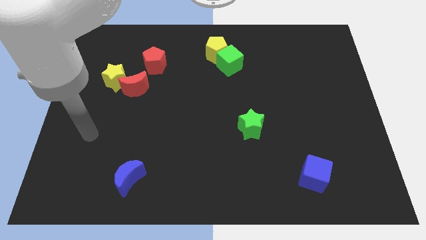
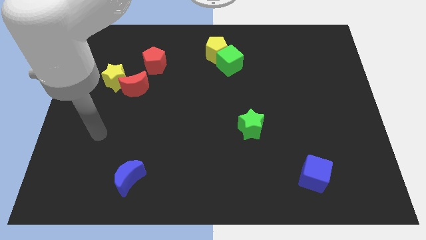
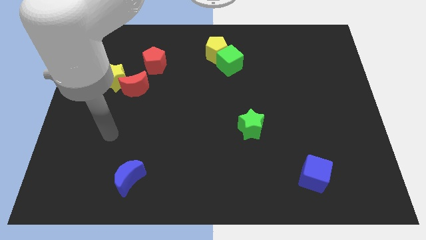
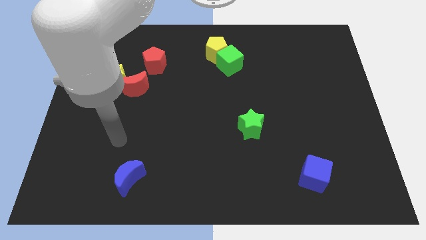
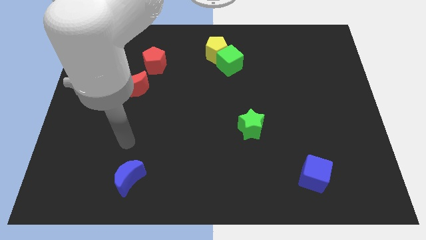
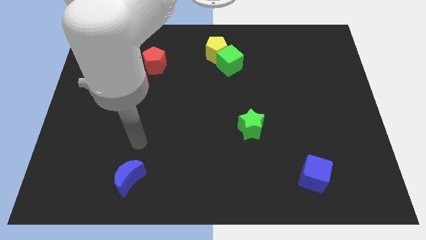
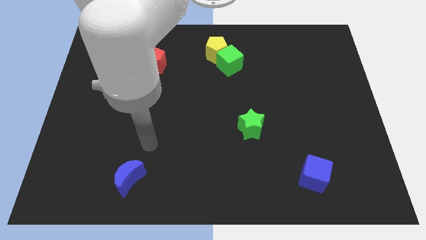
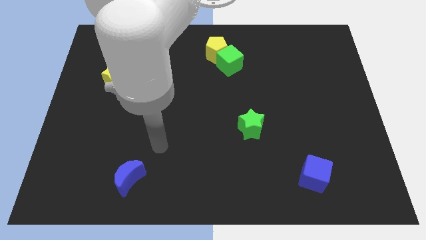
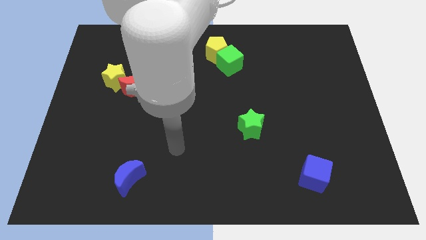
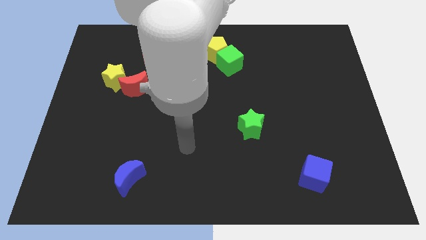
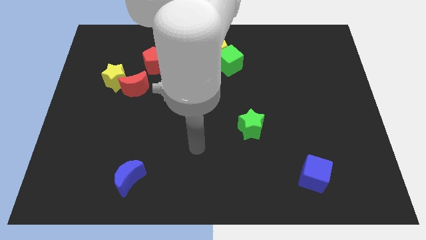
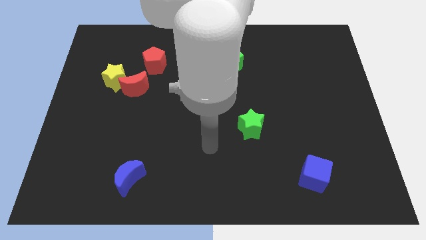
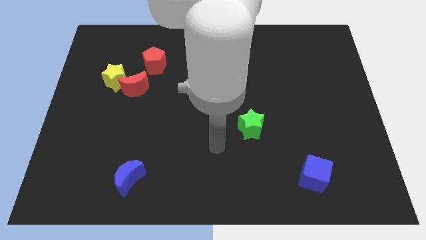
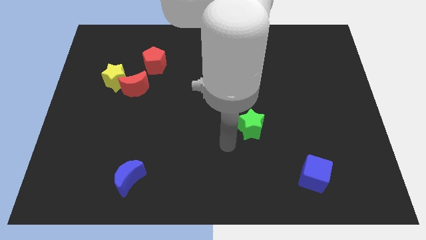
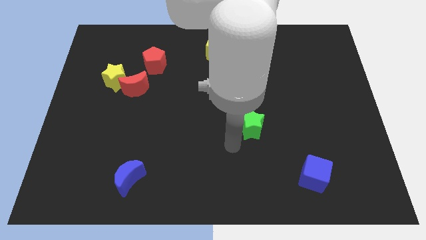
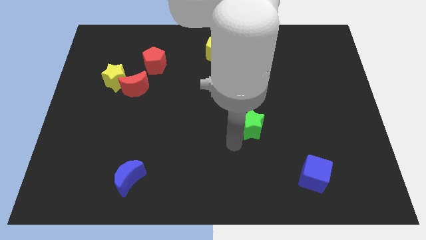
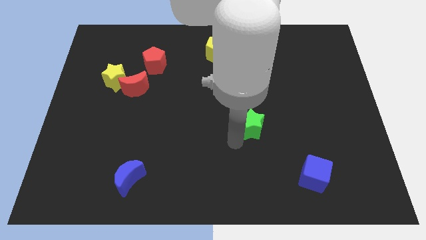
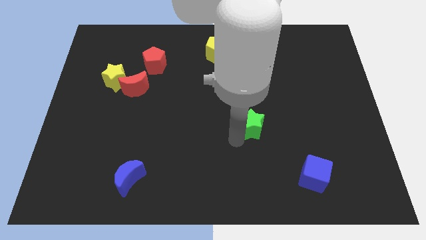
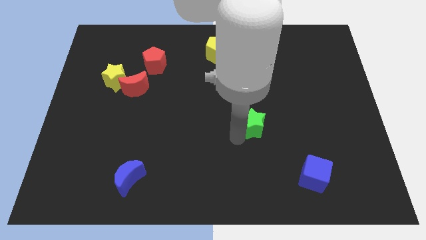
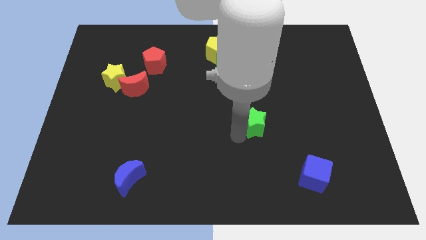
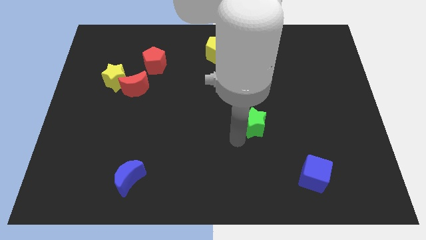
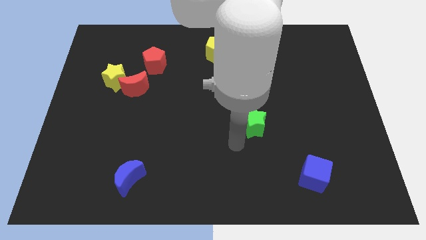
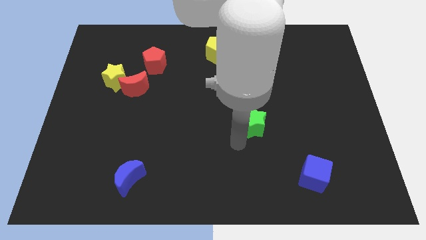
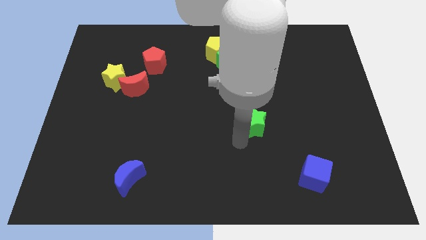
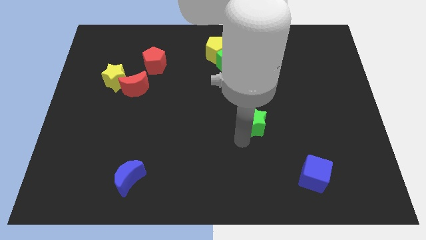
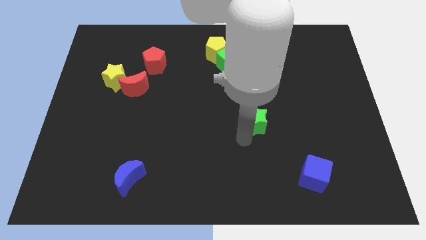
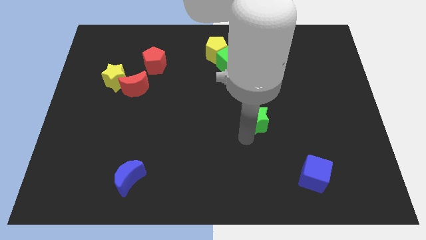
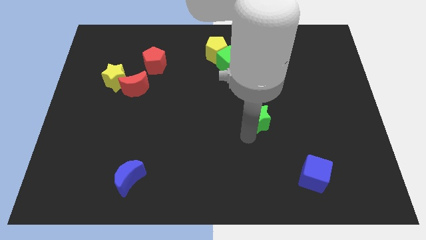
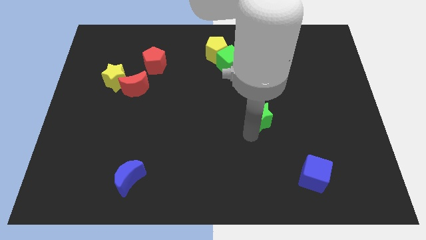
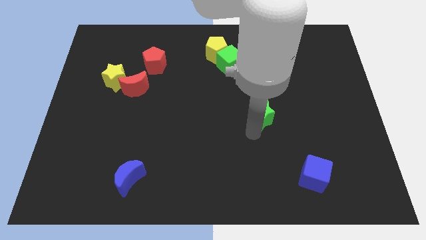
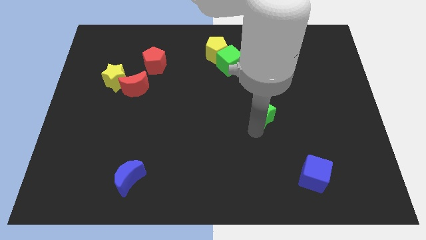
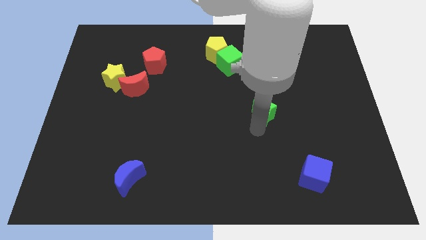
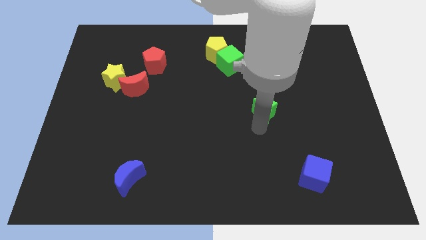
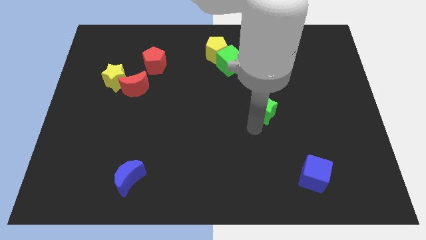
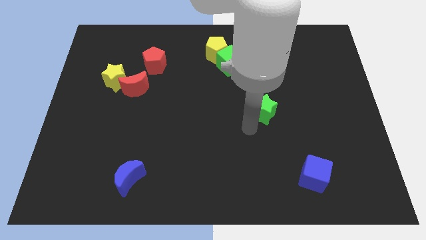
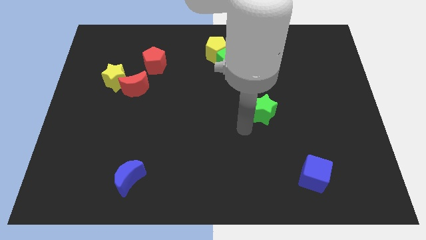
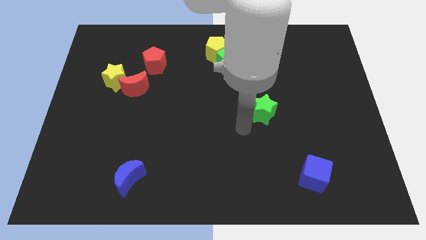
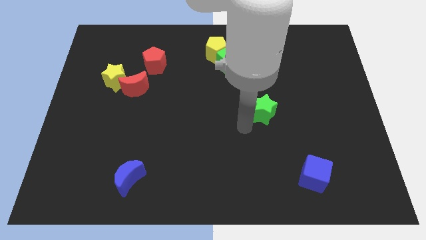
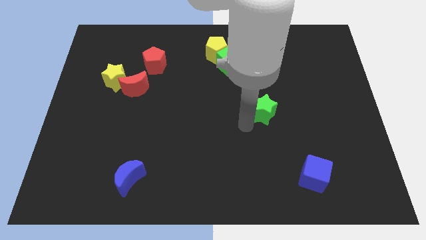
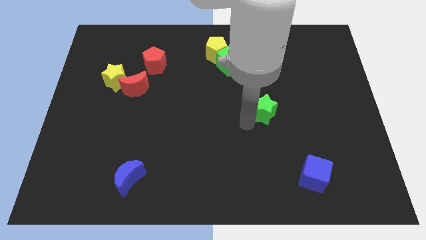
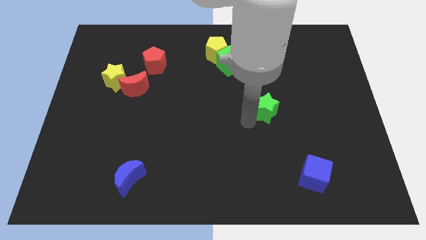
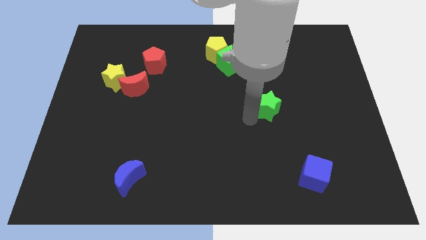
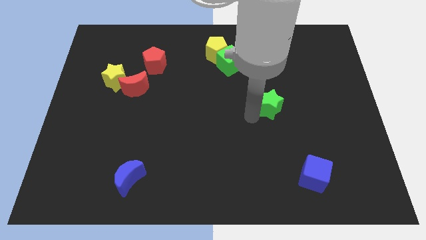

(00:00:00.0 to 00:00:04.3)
move the green star diagonally up and to the right a little bit

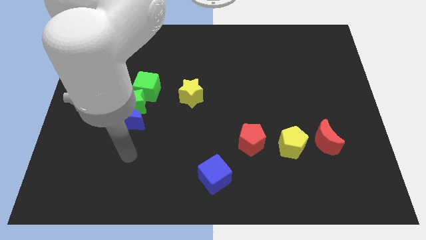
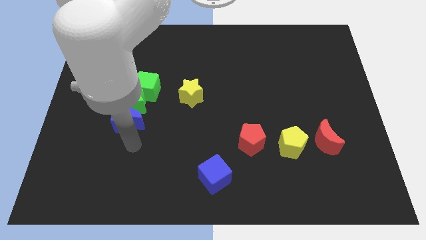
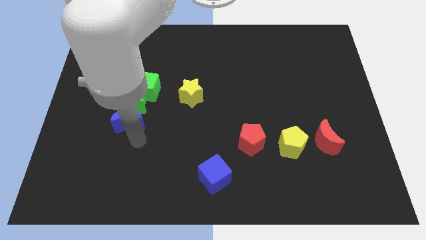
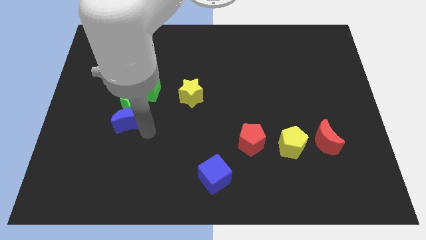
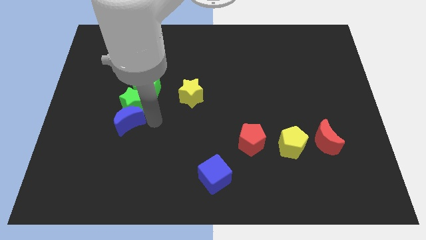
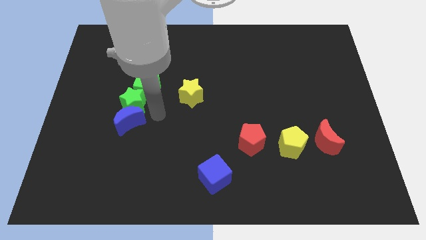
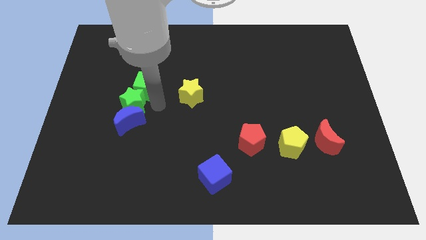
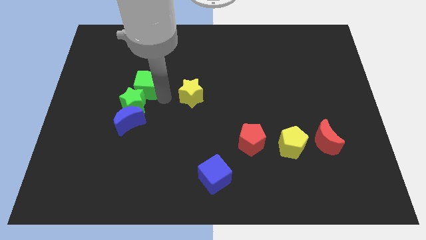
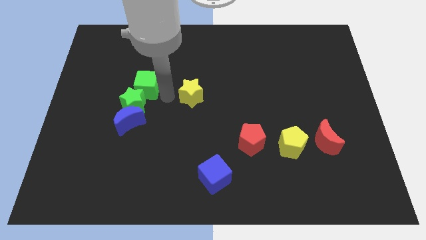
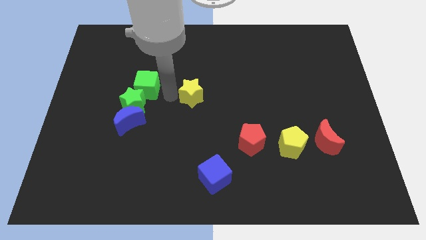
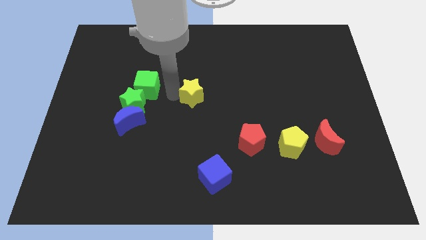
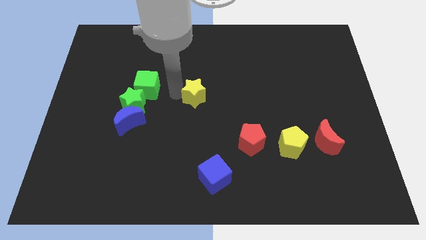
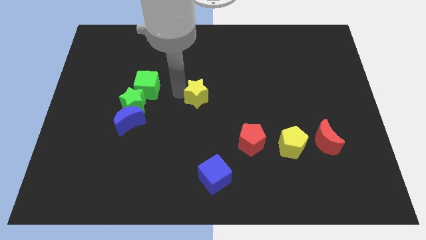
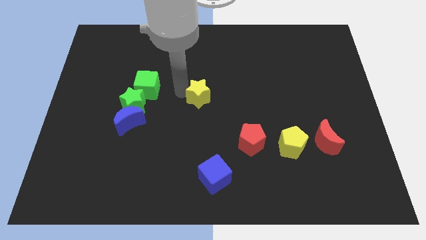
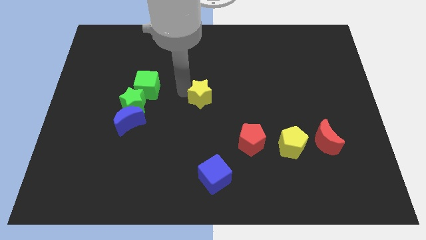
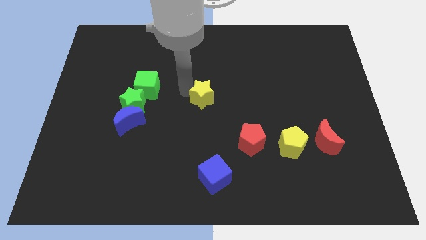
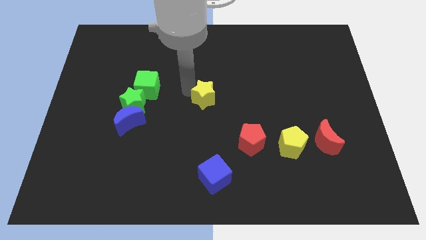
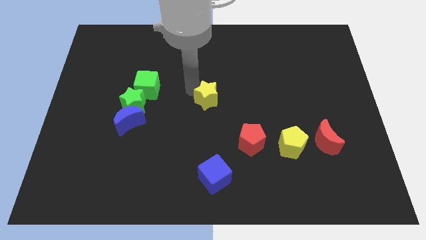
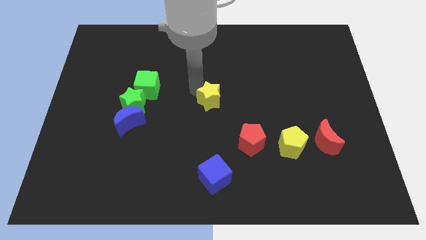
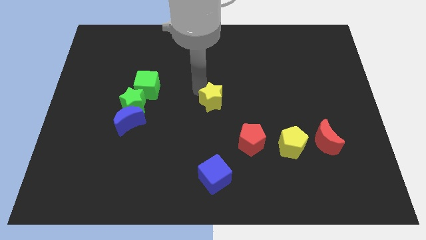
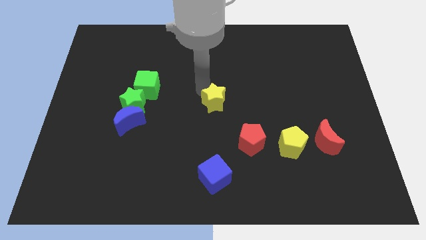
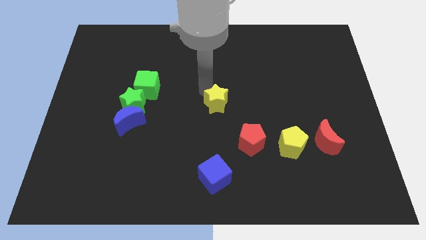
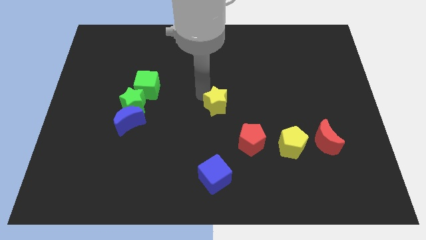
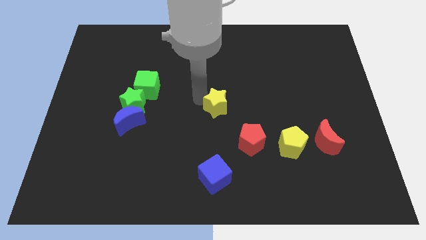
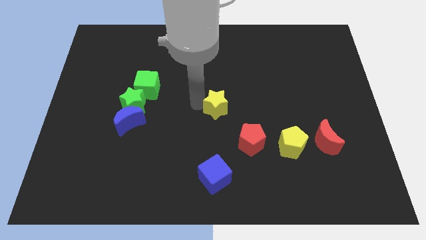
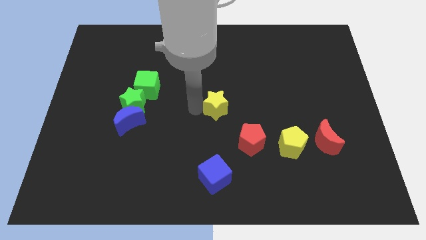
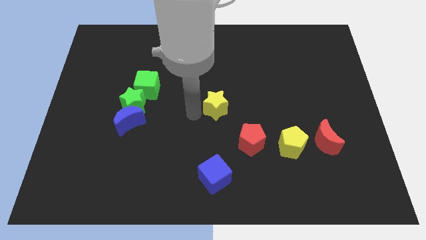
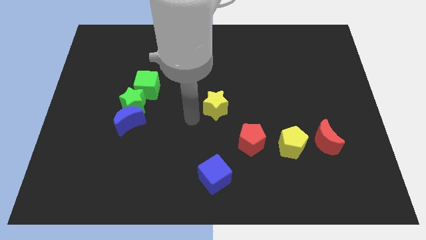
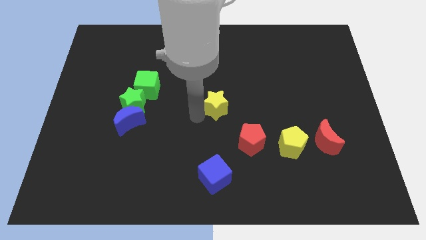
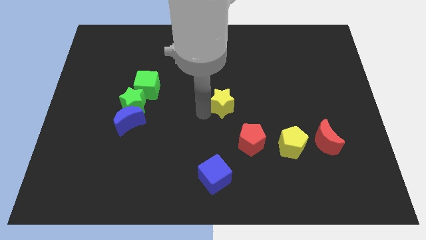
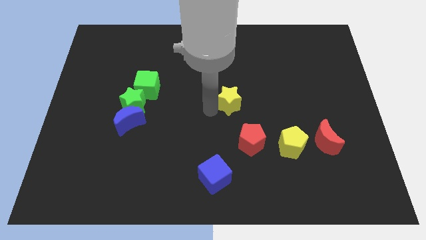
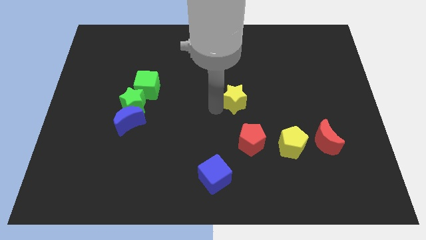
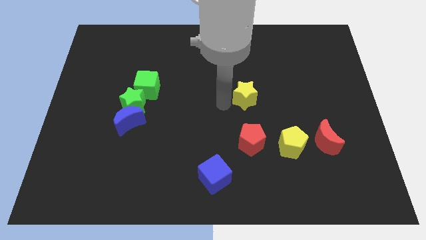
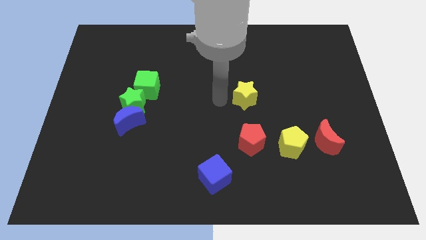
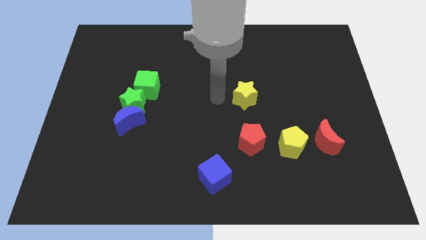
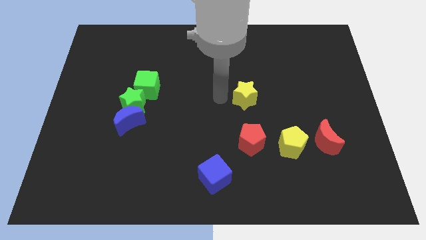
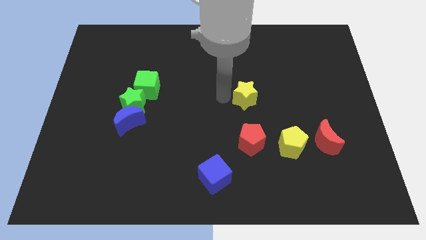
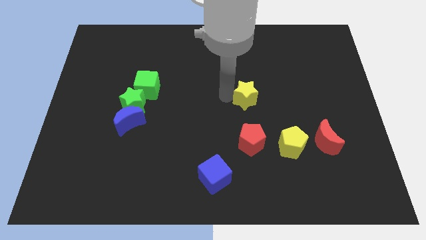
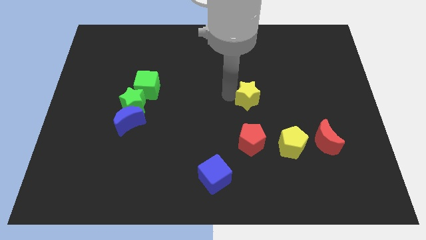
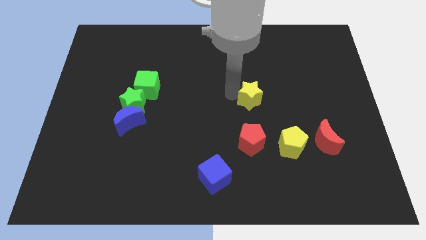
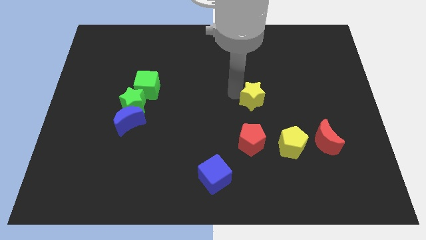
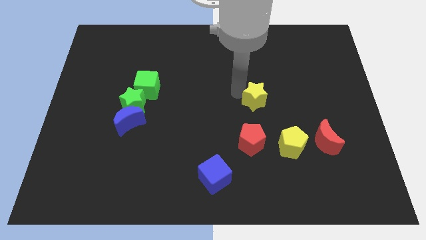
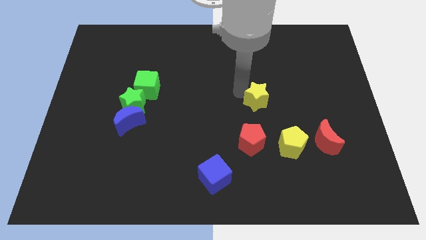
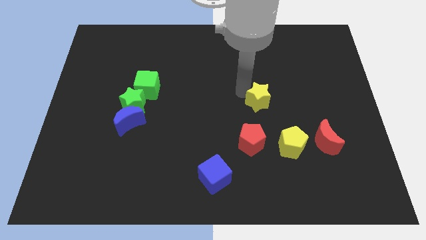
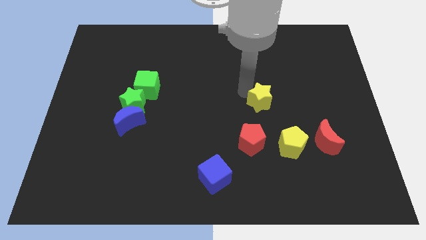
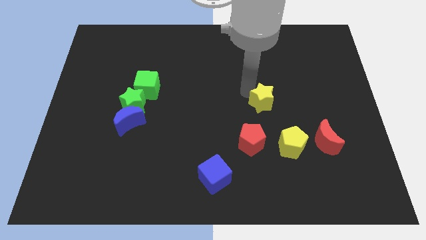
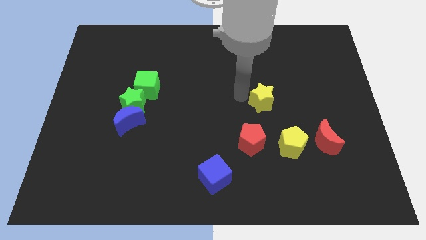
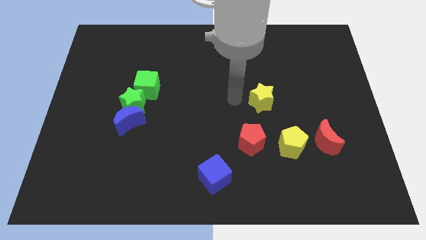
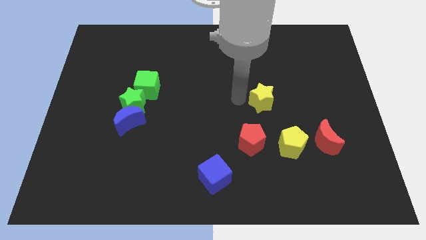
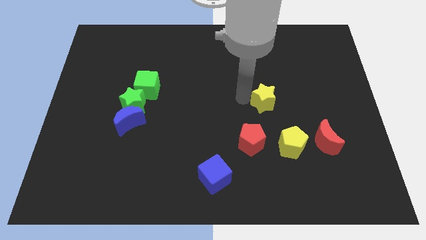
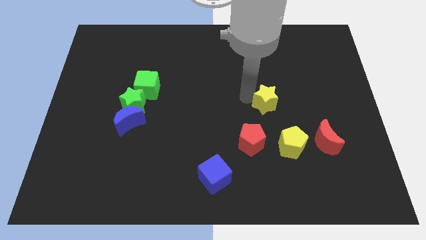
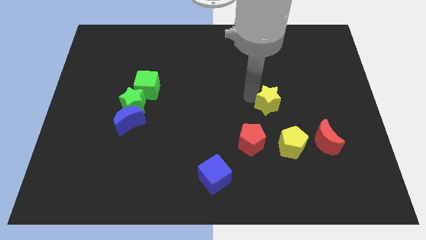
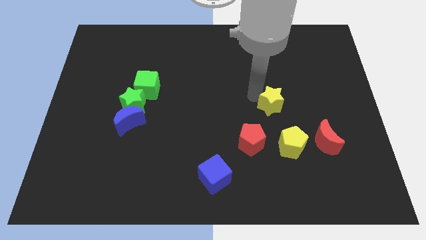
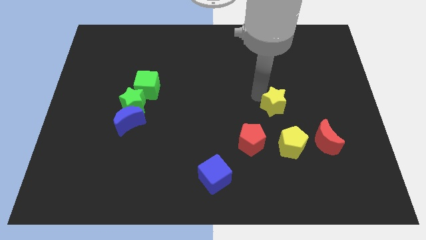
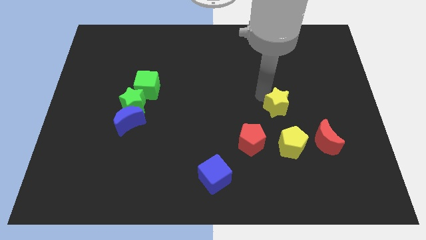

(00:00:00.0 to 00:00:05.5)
move the yellow star right
